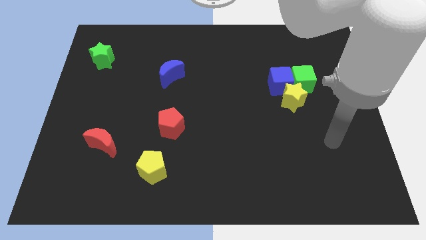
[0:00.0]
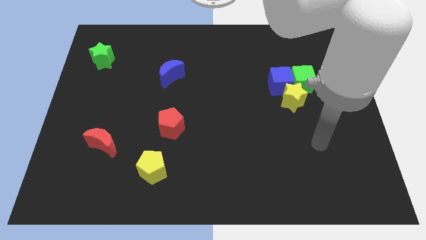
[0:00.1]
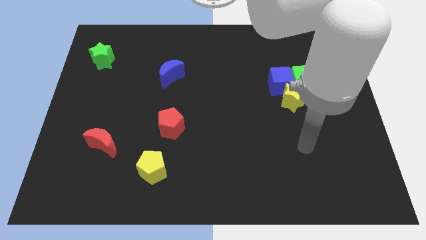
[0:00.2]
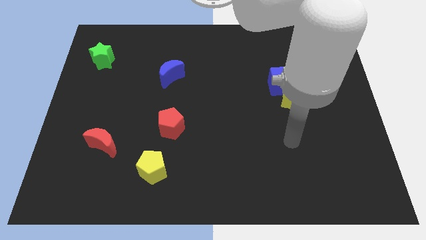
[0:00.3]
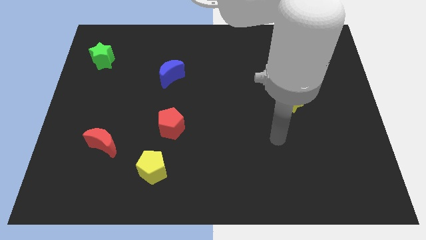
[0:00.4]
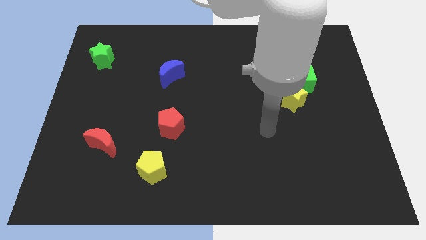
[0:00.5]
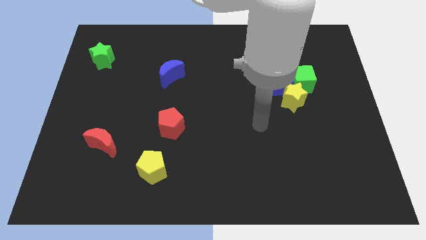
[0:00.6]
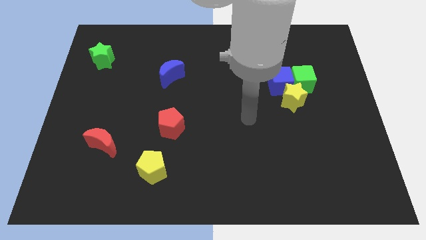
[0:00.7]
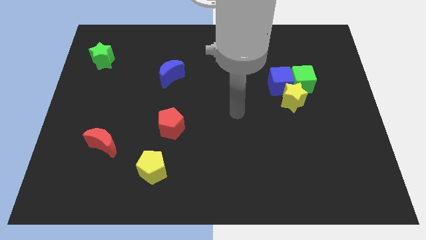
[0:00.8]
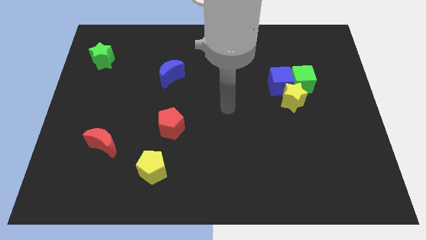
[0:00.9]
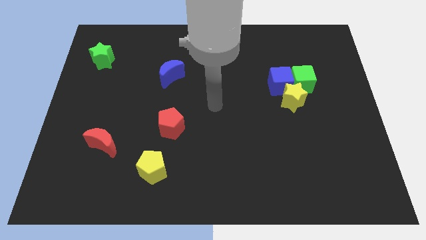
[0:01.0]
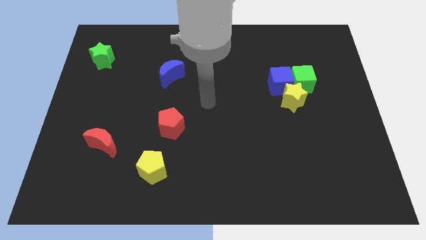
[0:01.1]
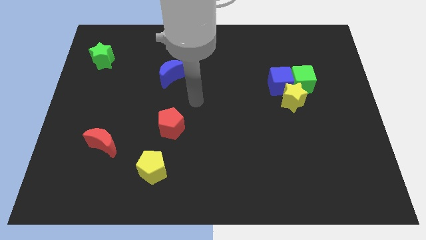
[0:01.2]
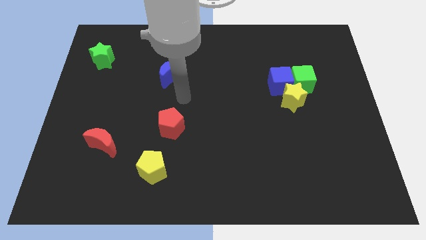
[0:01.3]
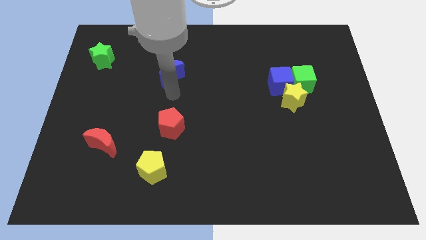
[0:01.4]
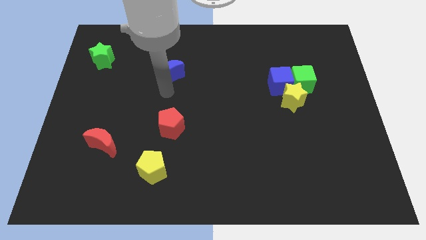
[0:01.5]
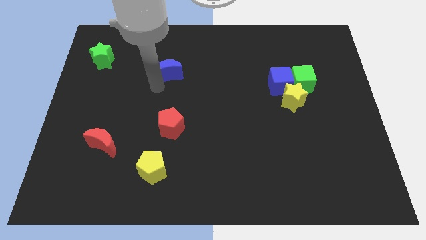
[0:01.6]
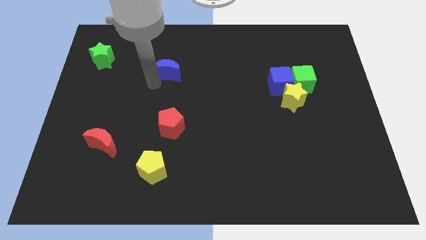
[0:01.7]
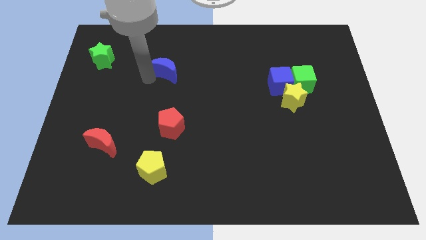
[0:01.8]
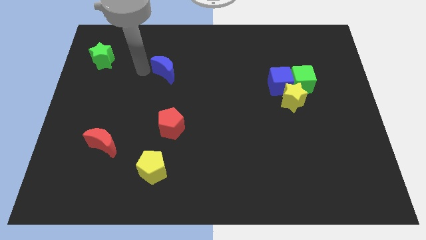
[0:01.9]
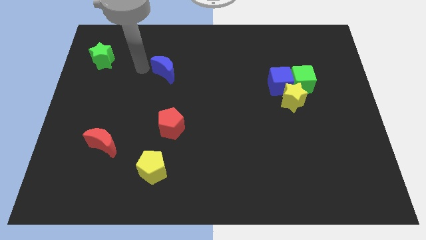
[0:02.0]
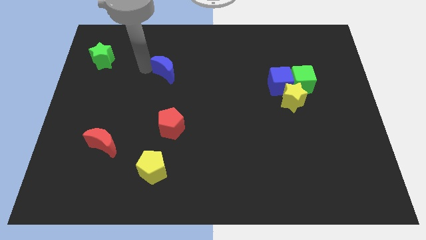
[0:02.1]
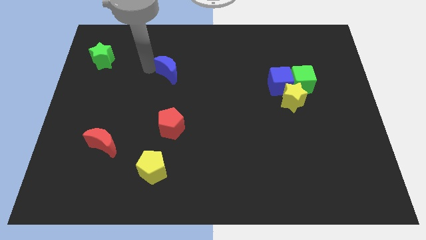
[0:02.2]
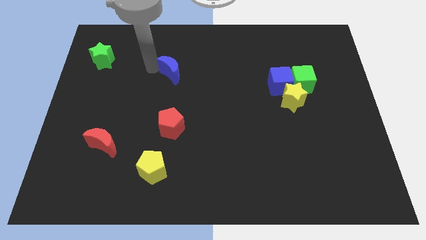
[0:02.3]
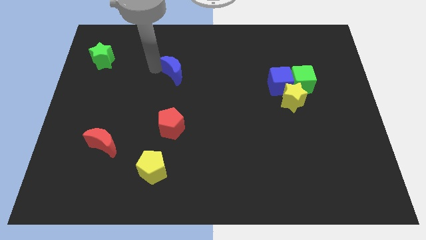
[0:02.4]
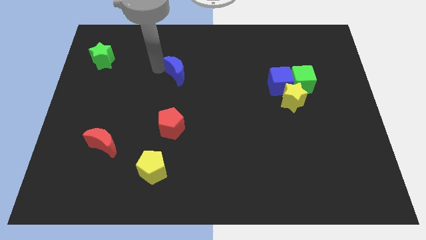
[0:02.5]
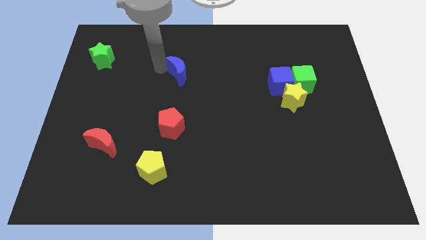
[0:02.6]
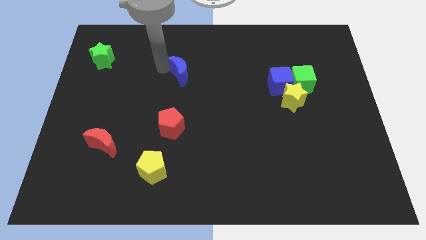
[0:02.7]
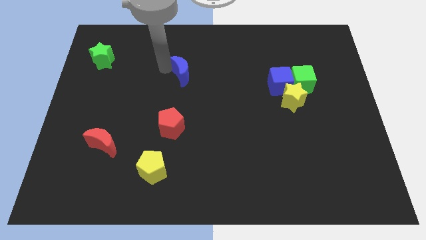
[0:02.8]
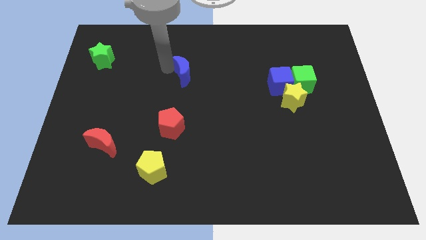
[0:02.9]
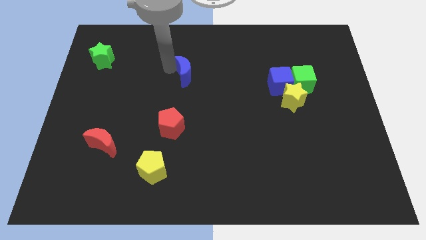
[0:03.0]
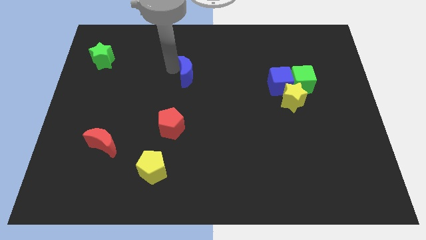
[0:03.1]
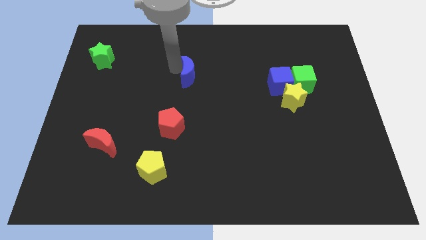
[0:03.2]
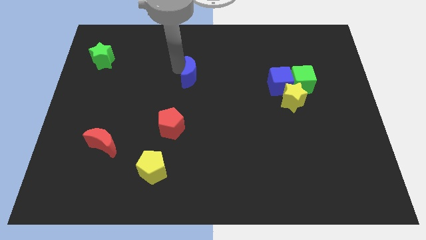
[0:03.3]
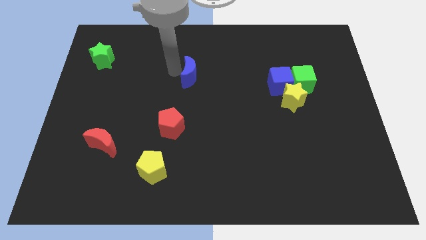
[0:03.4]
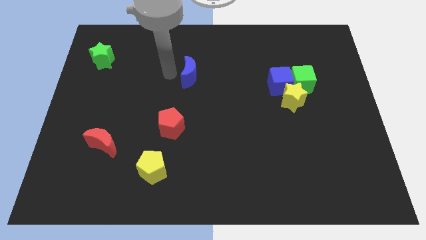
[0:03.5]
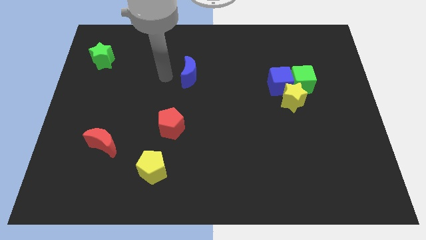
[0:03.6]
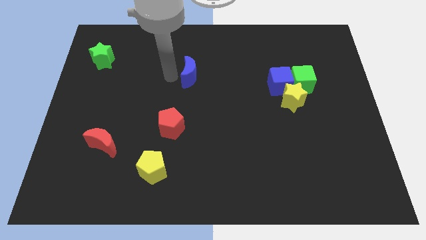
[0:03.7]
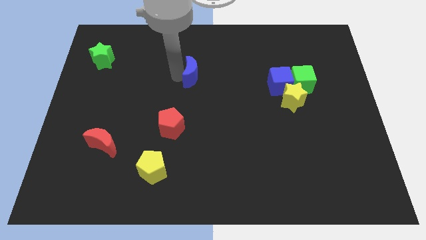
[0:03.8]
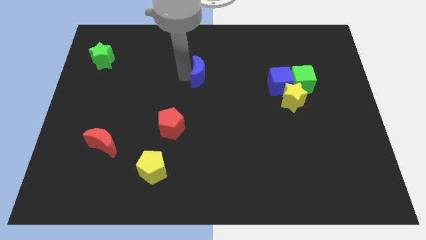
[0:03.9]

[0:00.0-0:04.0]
slightly slide the blue moon to the right

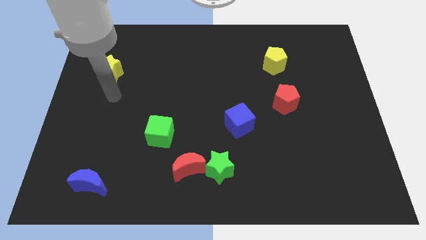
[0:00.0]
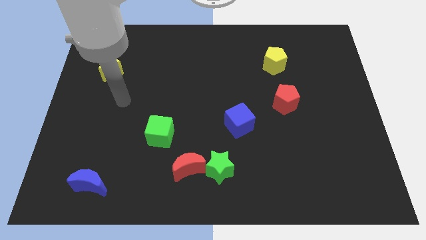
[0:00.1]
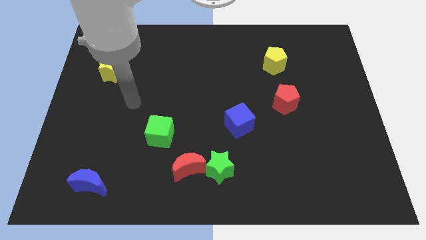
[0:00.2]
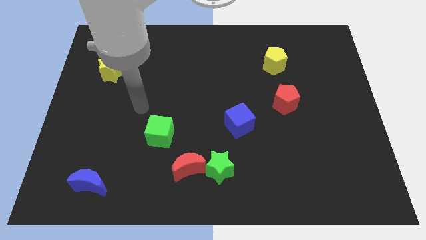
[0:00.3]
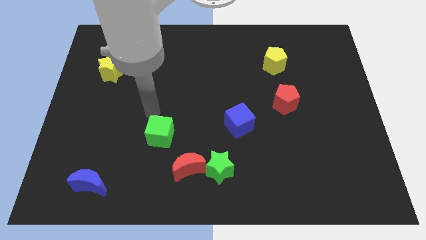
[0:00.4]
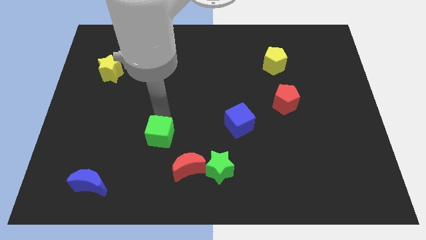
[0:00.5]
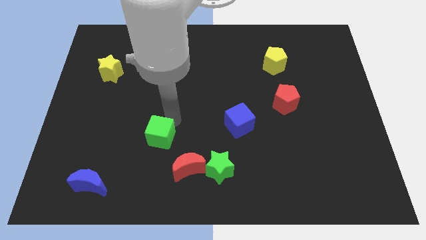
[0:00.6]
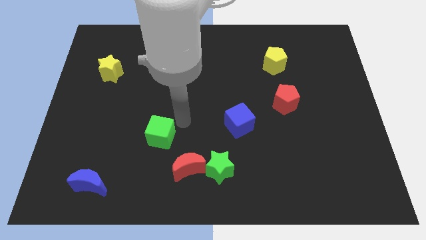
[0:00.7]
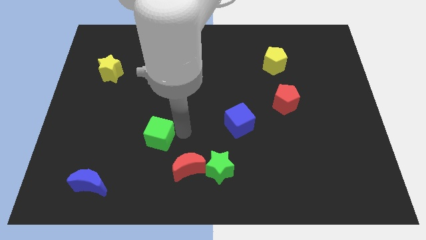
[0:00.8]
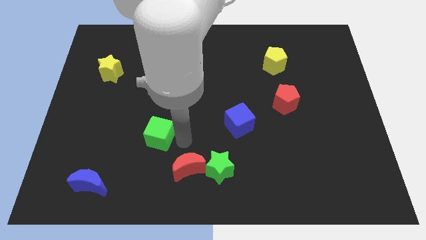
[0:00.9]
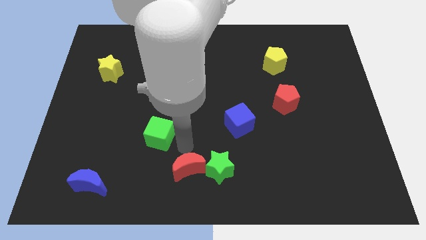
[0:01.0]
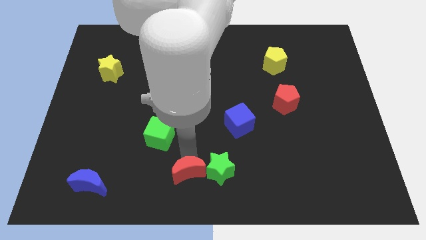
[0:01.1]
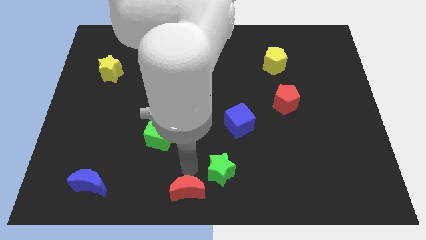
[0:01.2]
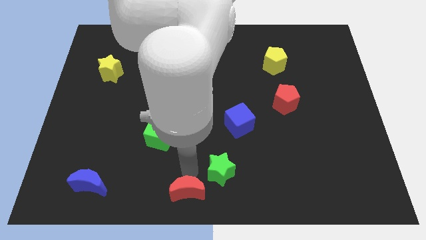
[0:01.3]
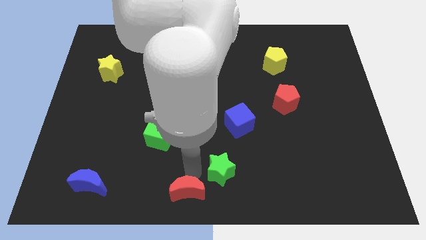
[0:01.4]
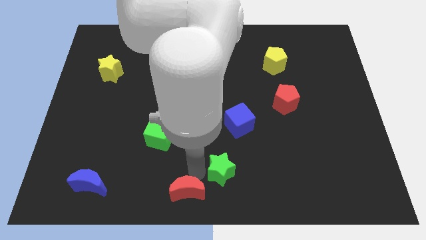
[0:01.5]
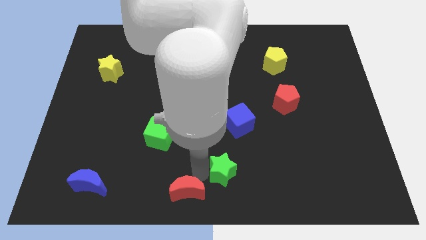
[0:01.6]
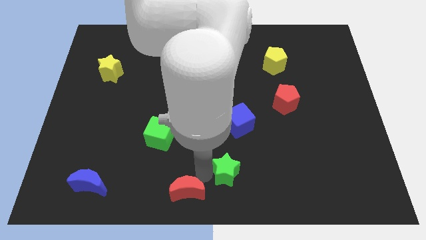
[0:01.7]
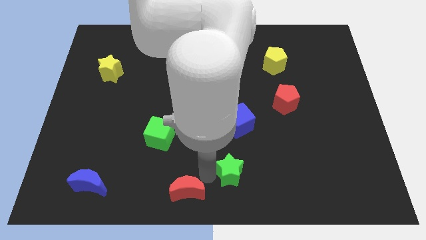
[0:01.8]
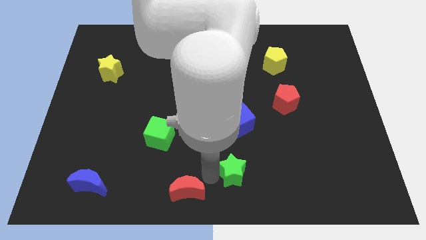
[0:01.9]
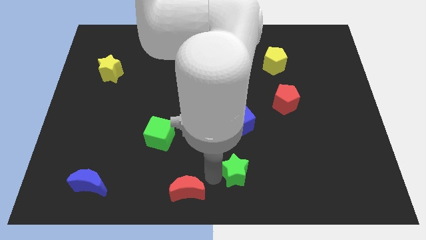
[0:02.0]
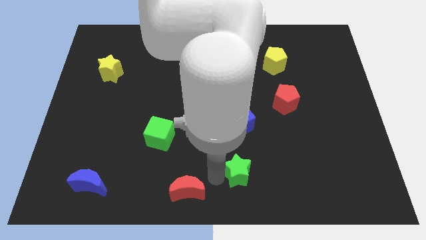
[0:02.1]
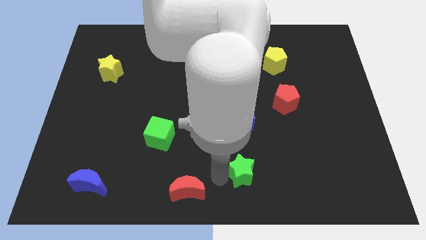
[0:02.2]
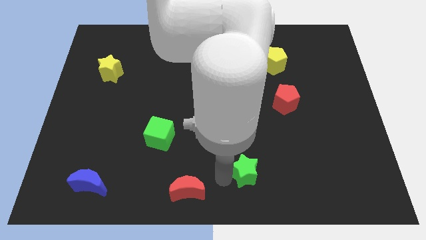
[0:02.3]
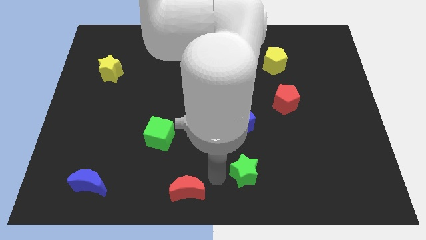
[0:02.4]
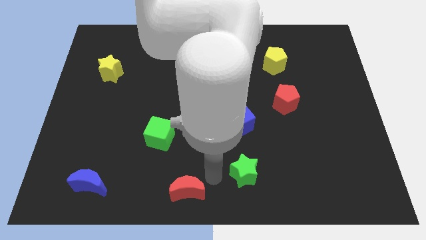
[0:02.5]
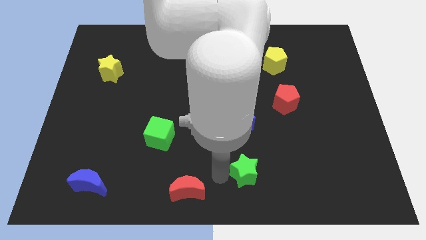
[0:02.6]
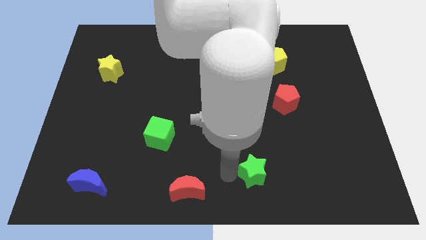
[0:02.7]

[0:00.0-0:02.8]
slide the green star to the right slightly

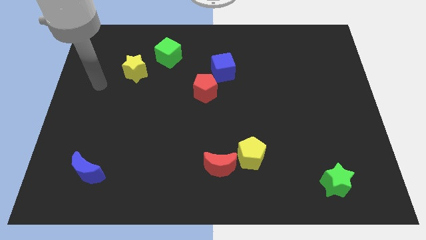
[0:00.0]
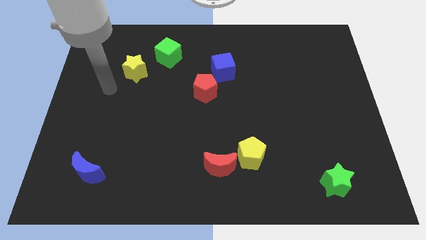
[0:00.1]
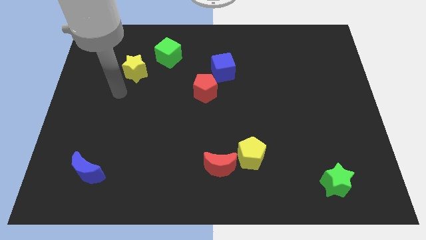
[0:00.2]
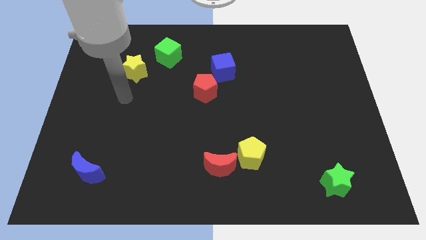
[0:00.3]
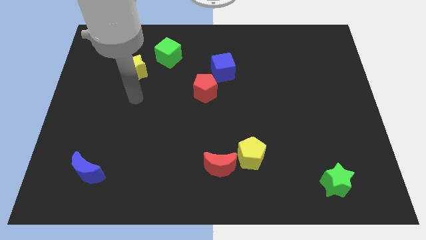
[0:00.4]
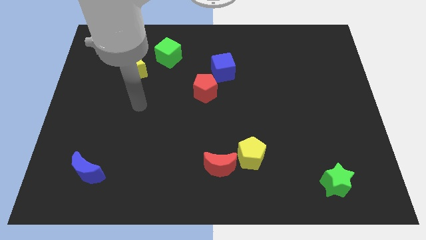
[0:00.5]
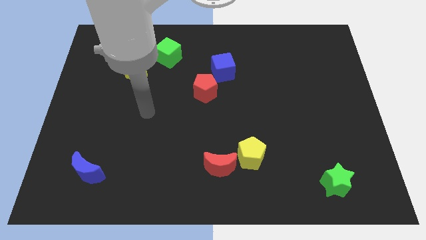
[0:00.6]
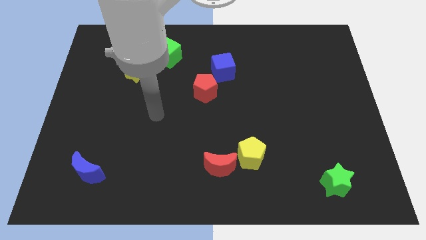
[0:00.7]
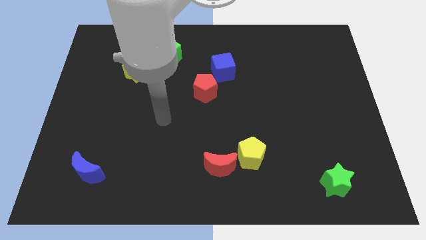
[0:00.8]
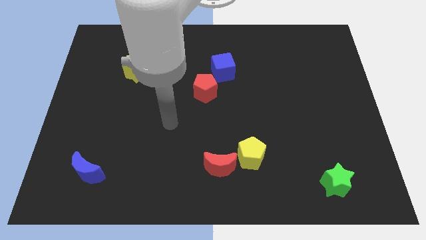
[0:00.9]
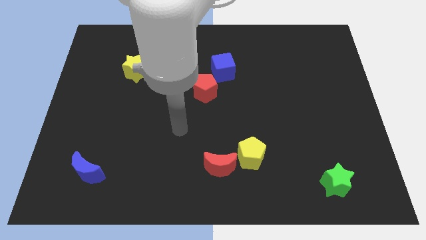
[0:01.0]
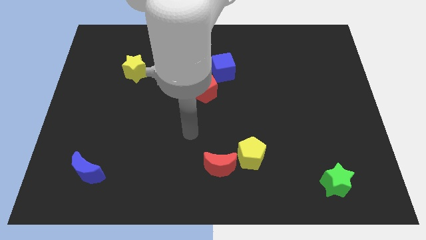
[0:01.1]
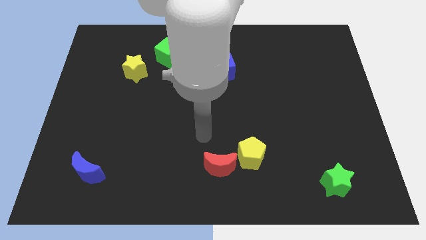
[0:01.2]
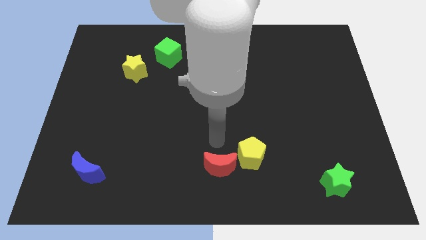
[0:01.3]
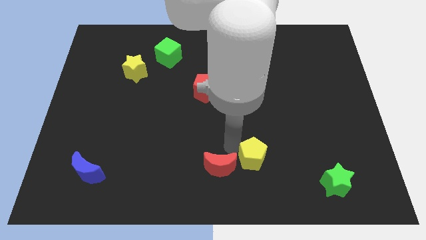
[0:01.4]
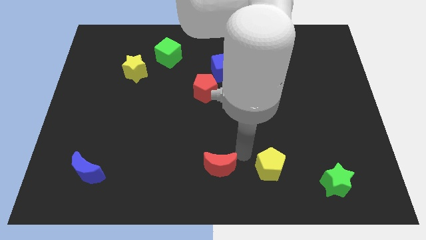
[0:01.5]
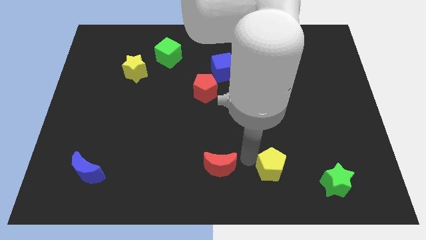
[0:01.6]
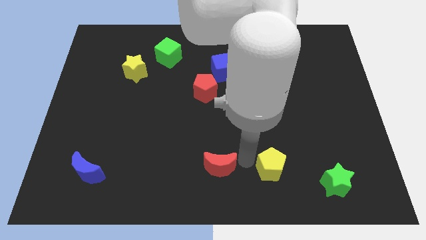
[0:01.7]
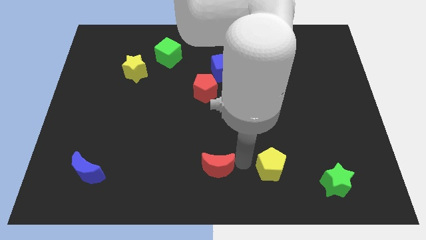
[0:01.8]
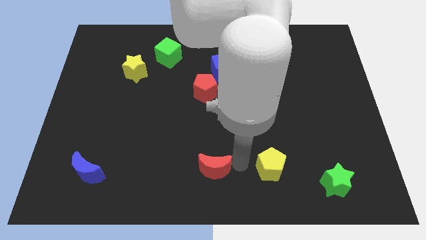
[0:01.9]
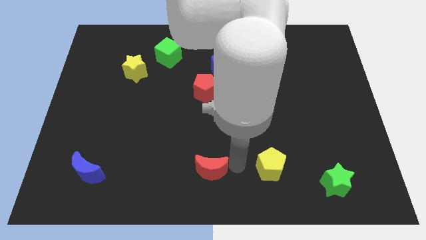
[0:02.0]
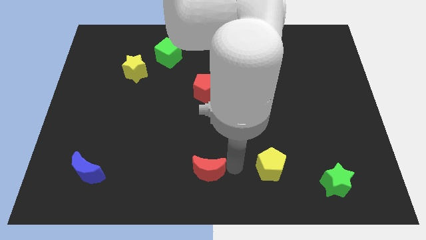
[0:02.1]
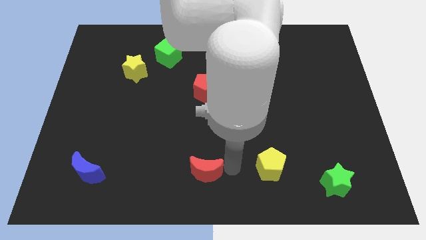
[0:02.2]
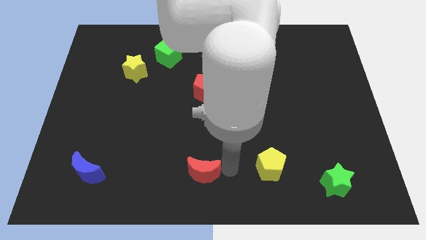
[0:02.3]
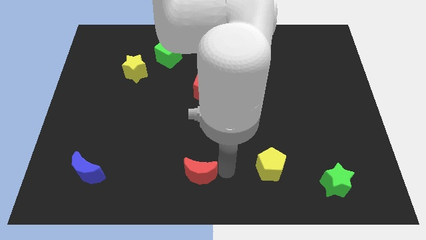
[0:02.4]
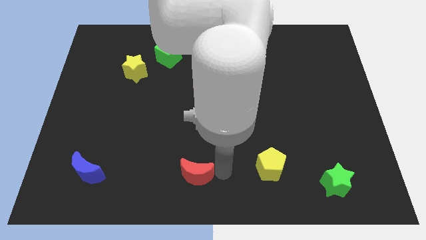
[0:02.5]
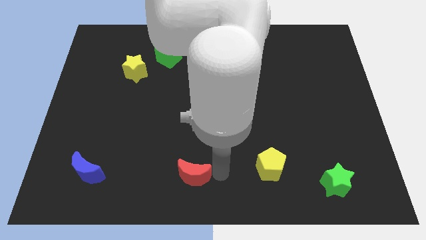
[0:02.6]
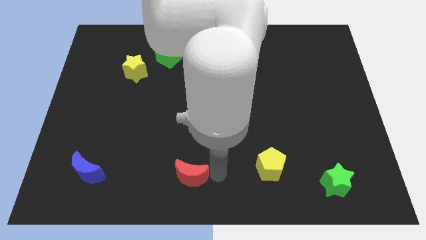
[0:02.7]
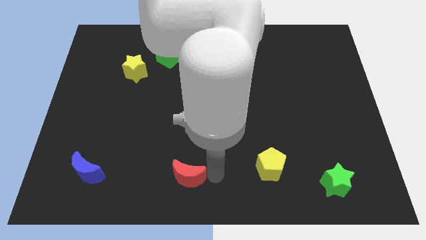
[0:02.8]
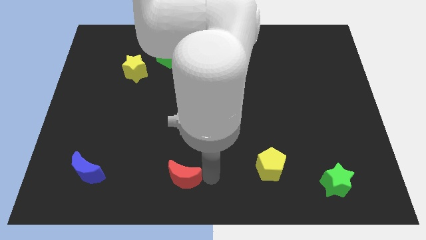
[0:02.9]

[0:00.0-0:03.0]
slightly move the red moon left
